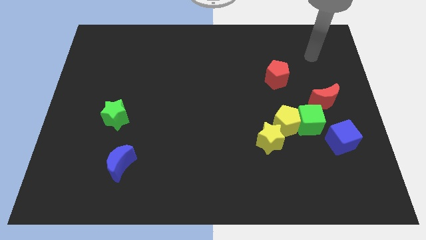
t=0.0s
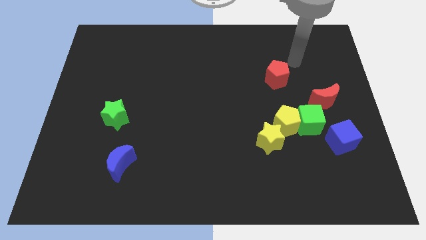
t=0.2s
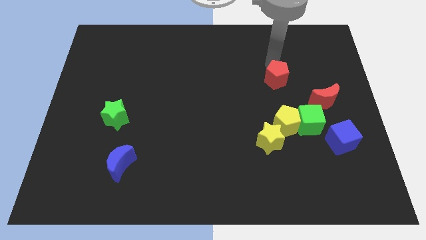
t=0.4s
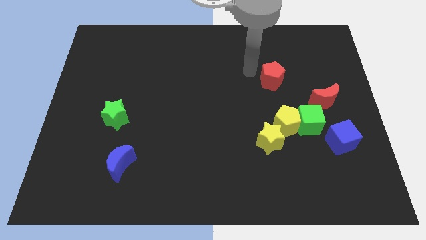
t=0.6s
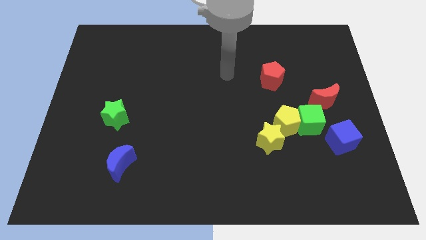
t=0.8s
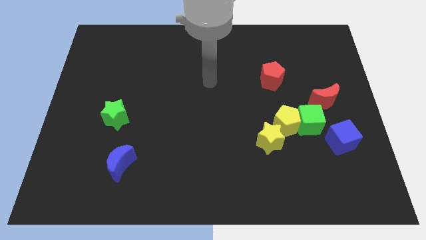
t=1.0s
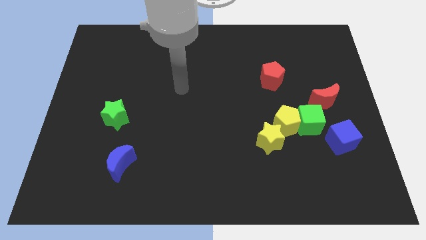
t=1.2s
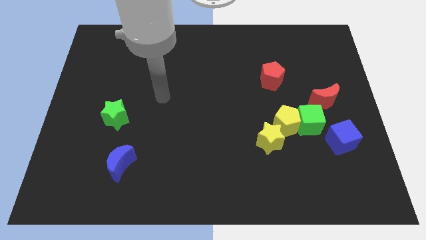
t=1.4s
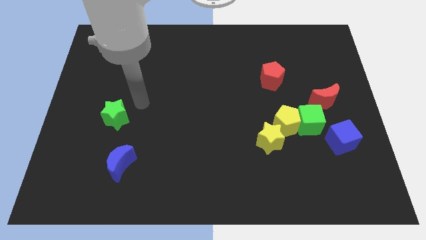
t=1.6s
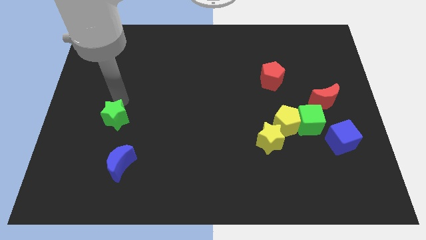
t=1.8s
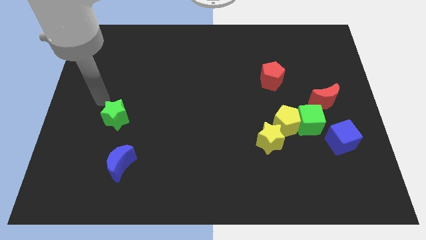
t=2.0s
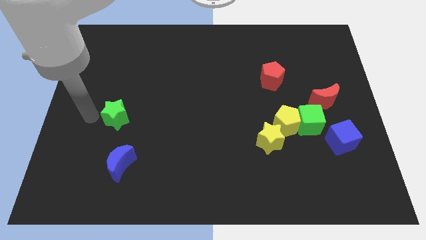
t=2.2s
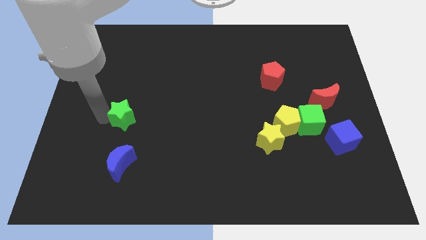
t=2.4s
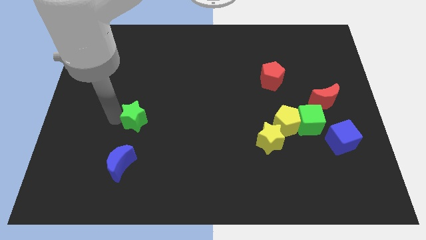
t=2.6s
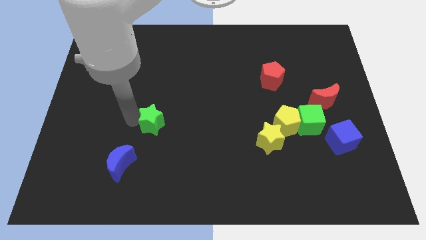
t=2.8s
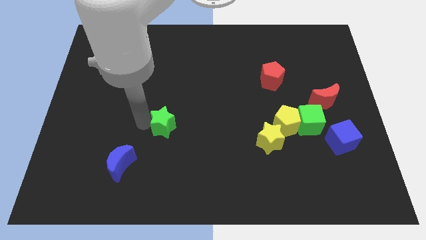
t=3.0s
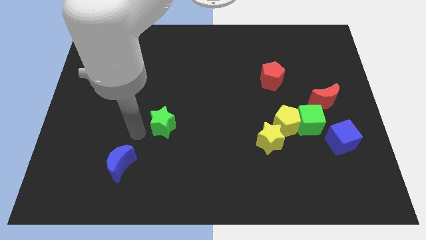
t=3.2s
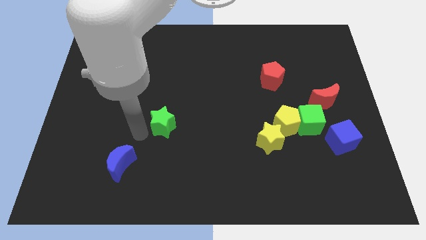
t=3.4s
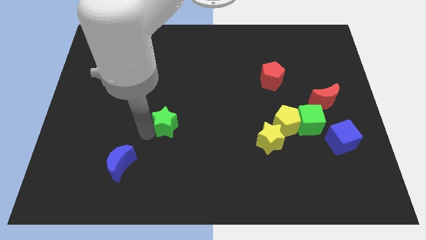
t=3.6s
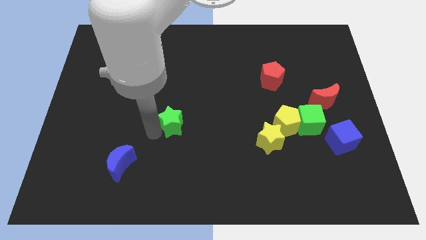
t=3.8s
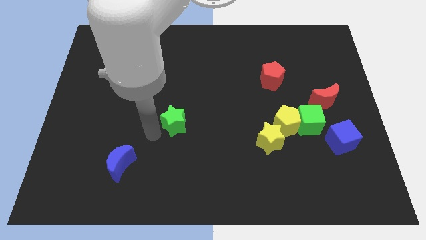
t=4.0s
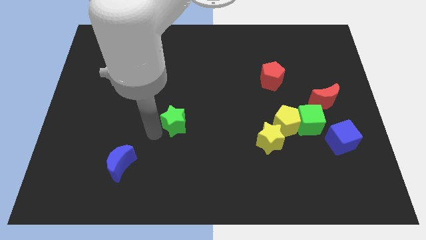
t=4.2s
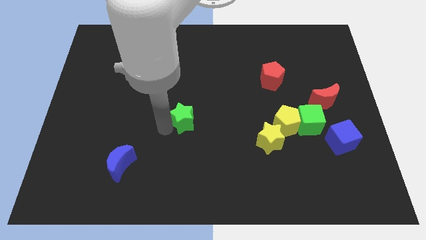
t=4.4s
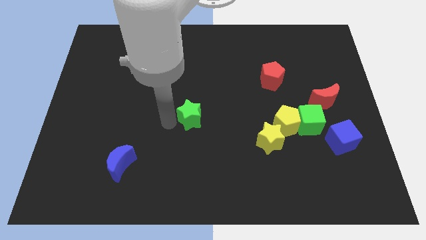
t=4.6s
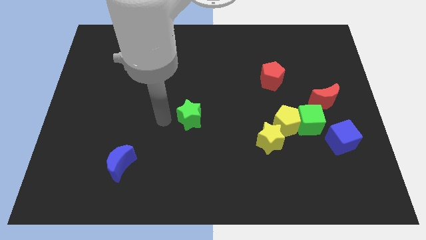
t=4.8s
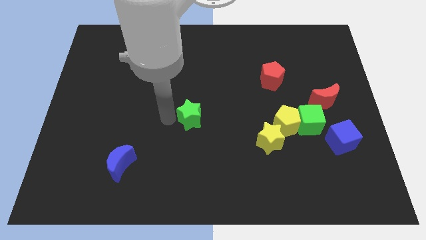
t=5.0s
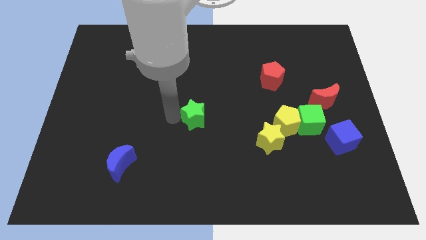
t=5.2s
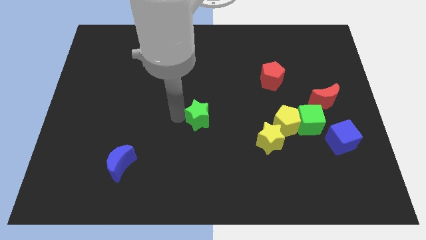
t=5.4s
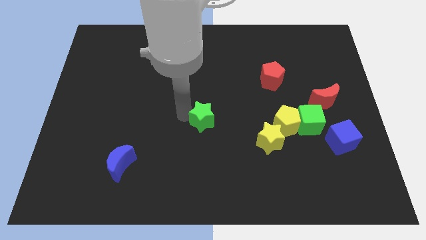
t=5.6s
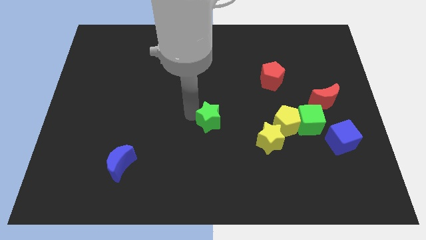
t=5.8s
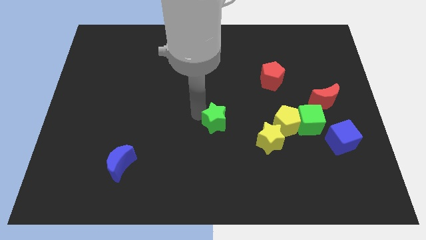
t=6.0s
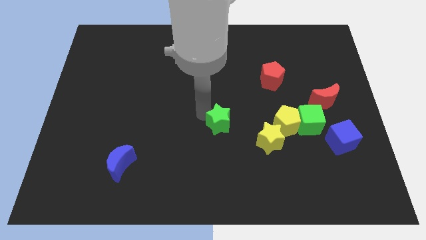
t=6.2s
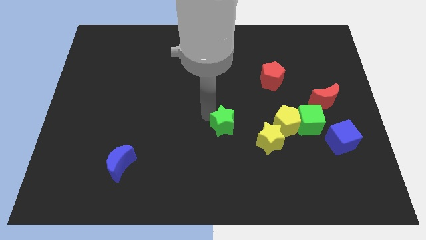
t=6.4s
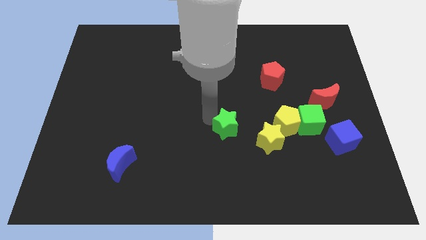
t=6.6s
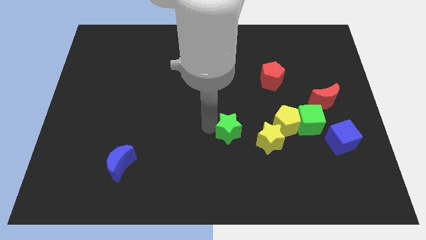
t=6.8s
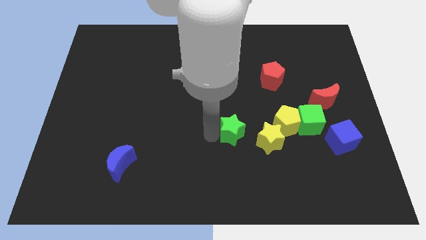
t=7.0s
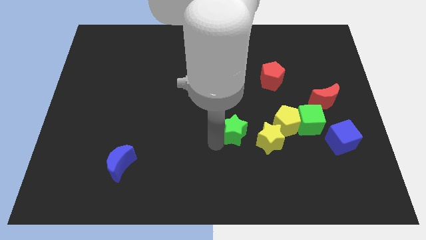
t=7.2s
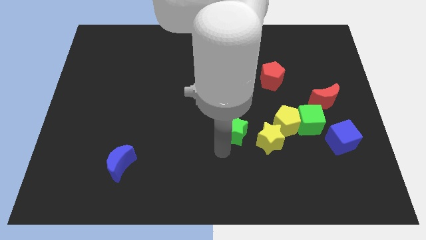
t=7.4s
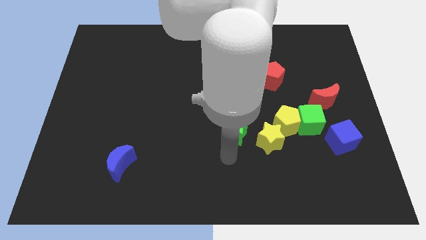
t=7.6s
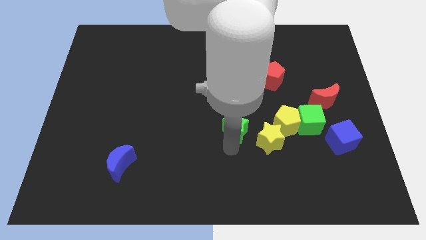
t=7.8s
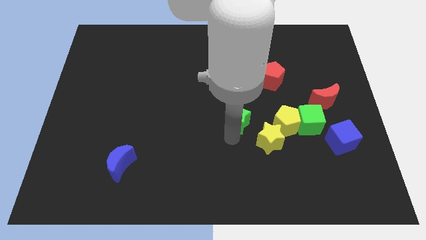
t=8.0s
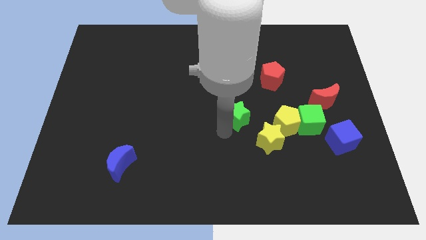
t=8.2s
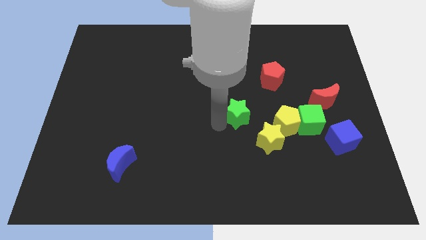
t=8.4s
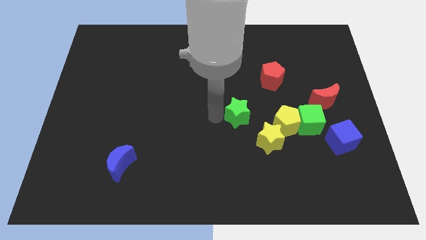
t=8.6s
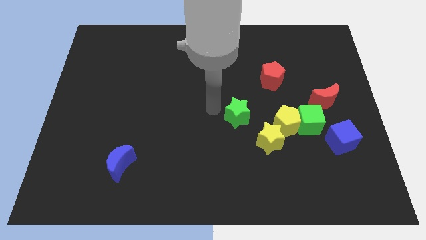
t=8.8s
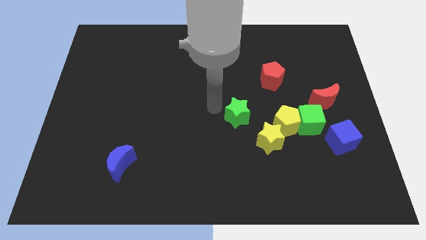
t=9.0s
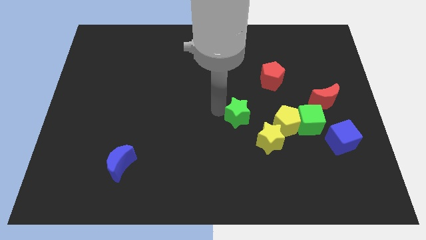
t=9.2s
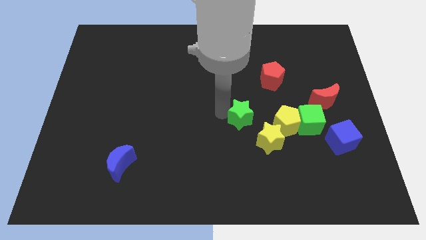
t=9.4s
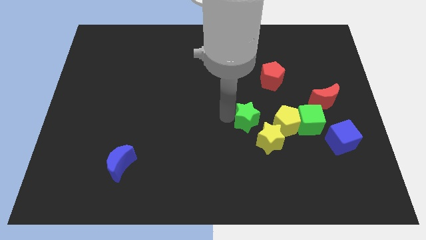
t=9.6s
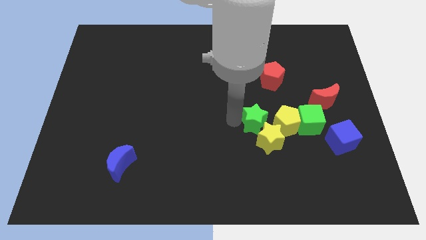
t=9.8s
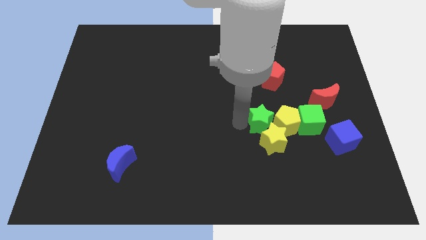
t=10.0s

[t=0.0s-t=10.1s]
slide the green star next to the yellow pentagon
